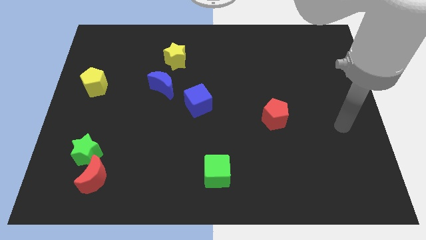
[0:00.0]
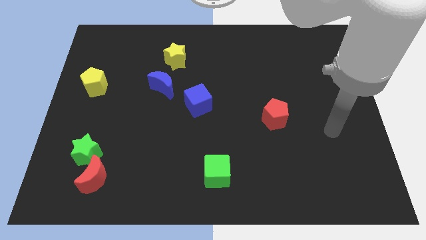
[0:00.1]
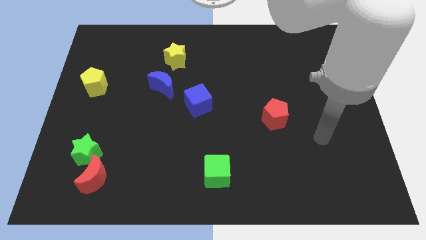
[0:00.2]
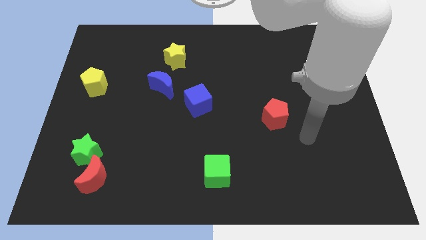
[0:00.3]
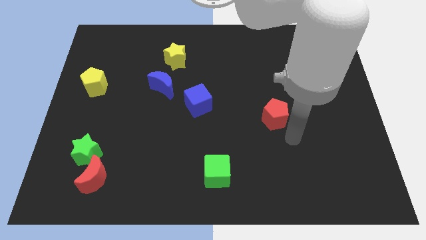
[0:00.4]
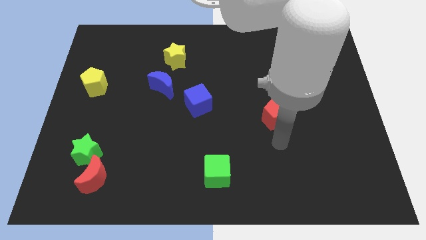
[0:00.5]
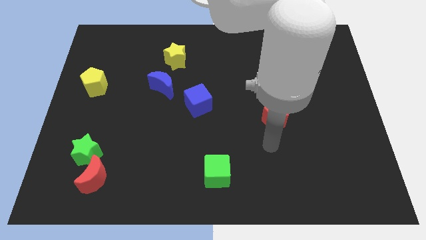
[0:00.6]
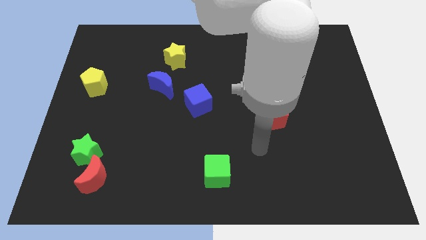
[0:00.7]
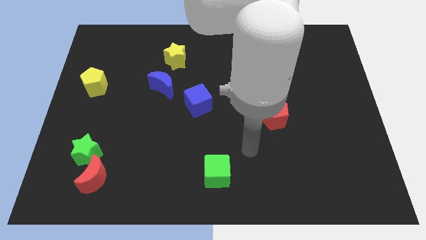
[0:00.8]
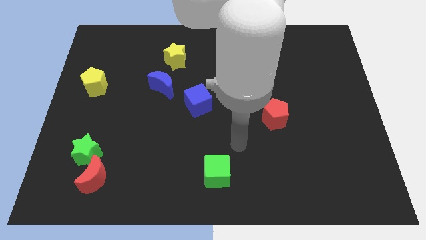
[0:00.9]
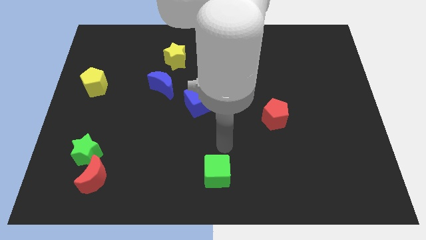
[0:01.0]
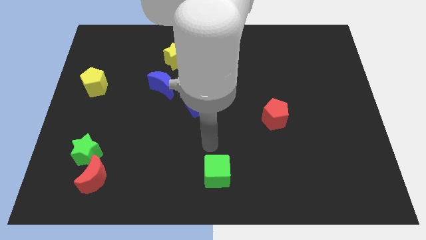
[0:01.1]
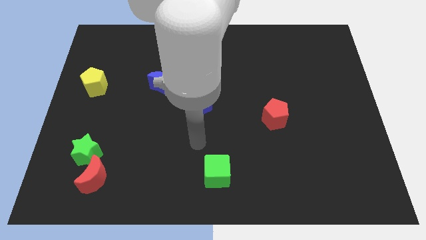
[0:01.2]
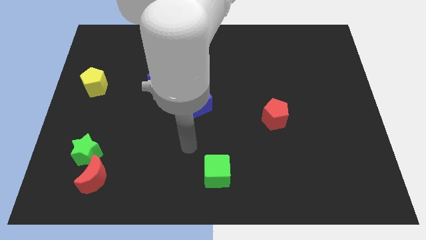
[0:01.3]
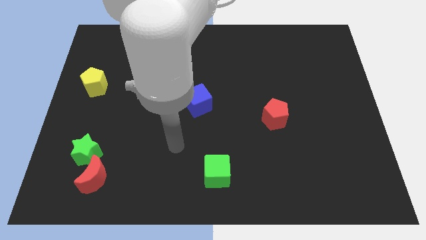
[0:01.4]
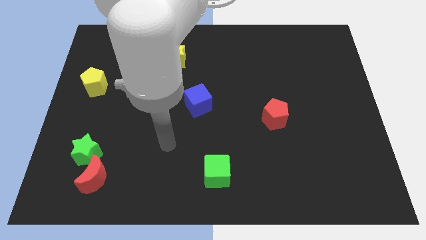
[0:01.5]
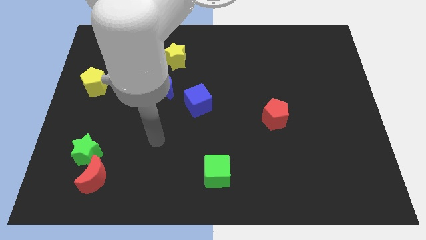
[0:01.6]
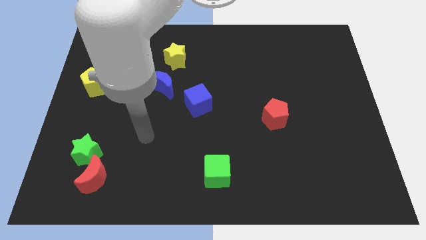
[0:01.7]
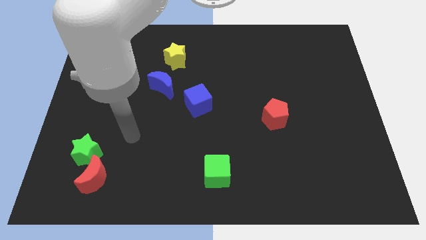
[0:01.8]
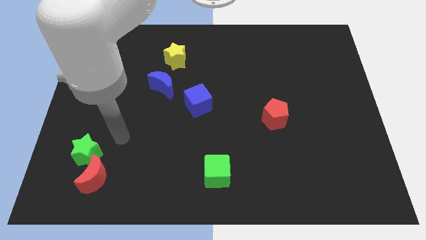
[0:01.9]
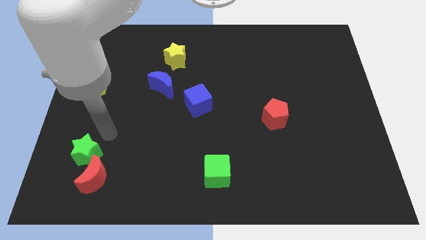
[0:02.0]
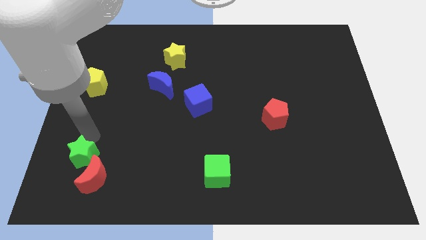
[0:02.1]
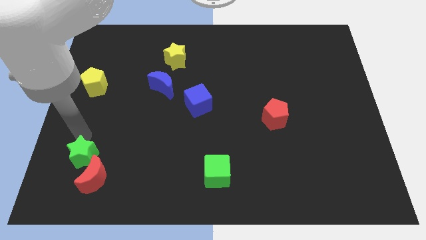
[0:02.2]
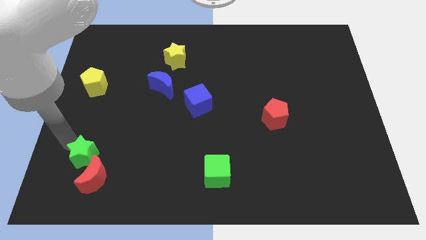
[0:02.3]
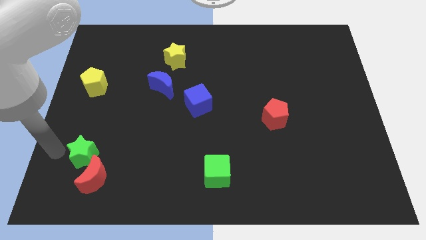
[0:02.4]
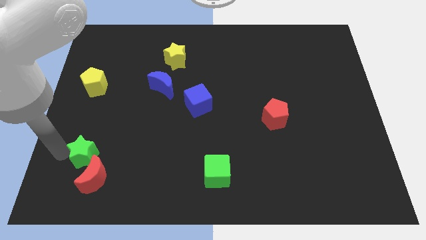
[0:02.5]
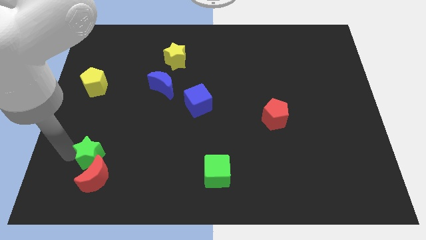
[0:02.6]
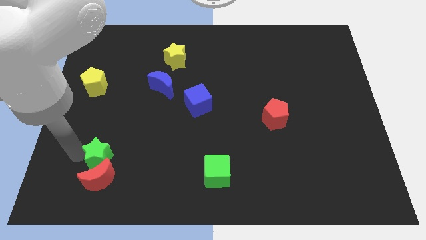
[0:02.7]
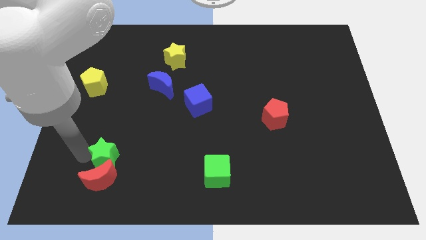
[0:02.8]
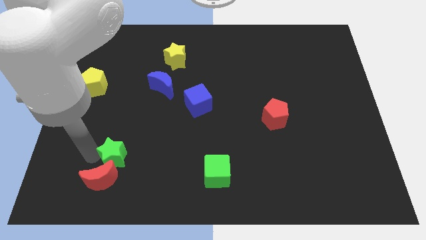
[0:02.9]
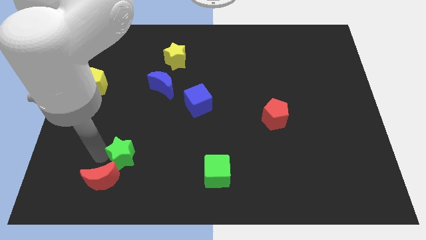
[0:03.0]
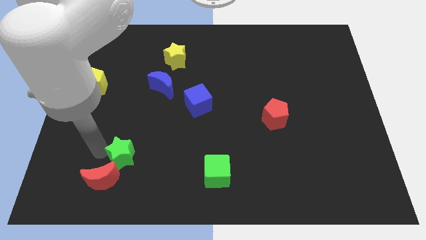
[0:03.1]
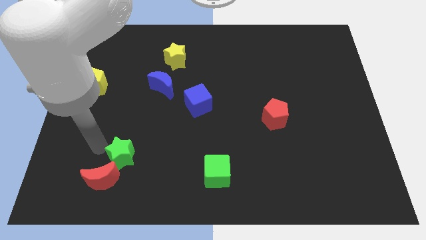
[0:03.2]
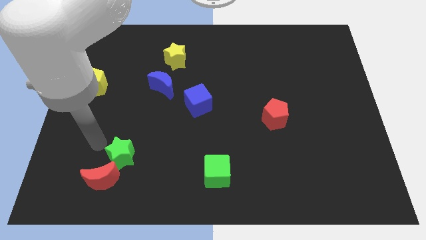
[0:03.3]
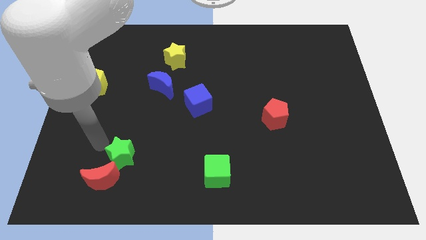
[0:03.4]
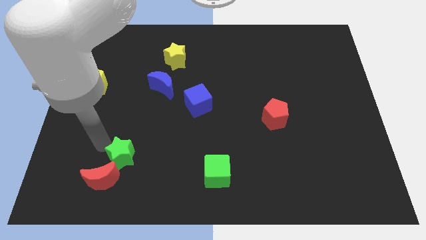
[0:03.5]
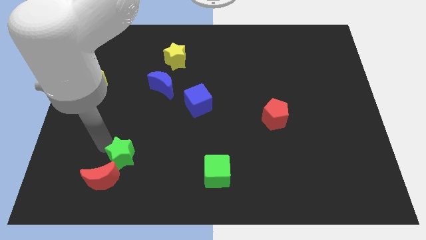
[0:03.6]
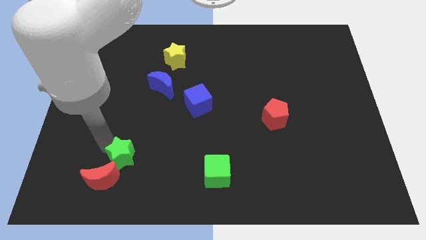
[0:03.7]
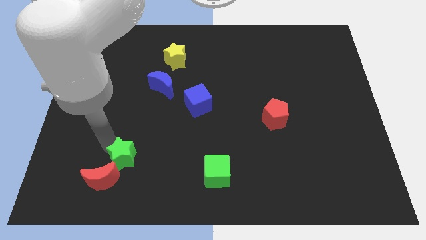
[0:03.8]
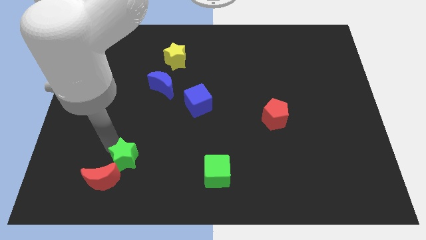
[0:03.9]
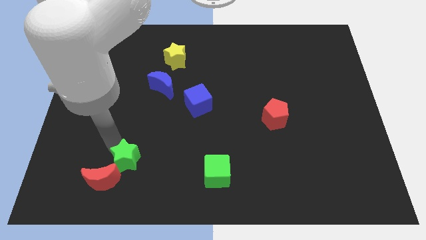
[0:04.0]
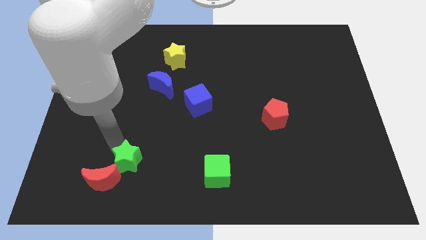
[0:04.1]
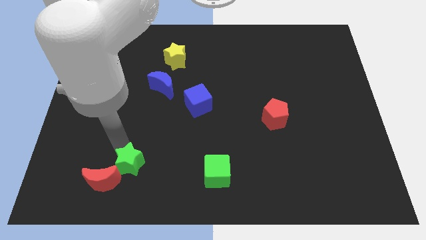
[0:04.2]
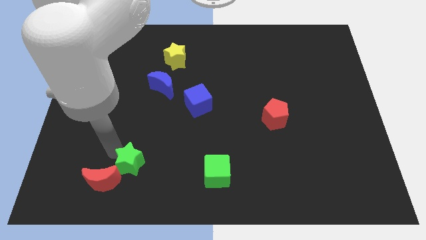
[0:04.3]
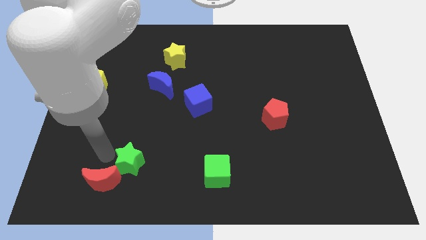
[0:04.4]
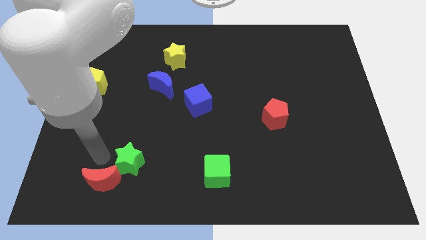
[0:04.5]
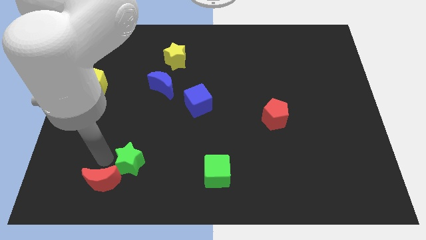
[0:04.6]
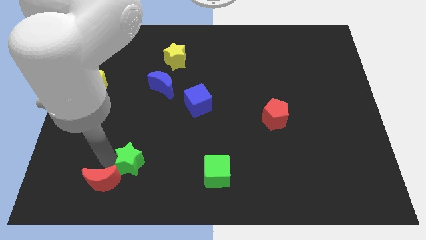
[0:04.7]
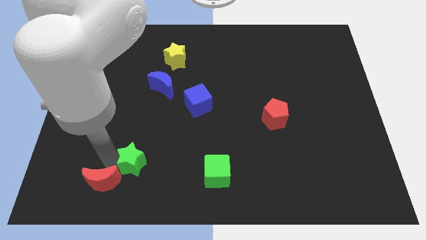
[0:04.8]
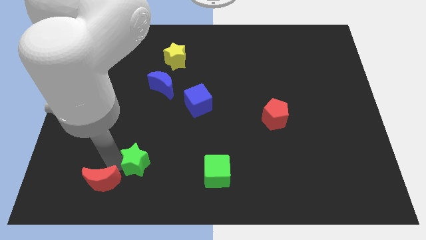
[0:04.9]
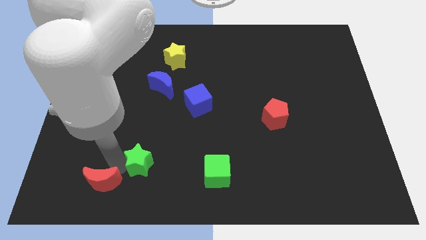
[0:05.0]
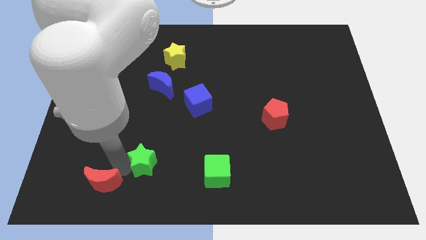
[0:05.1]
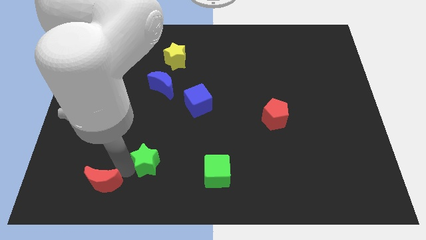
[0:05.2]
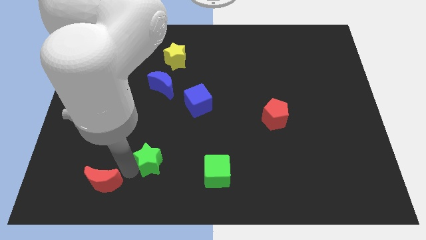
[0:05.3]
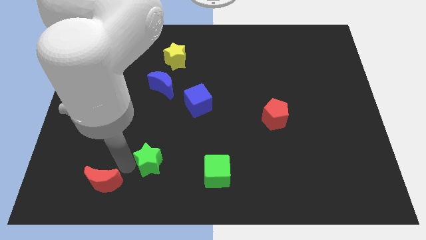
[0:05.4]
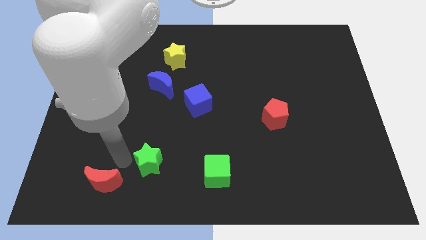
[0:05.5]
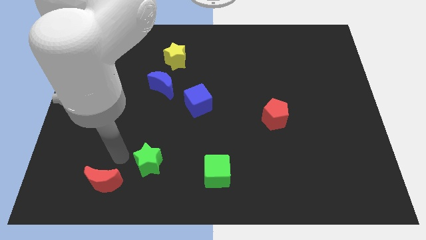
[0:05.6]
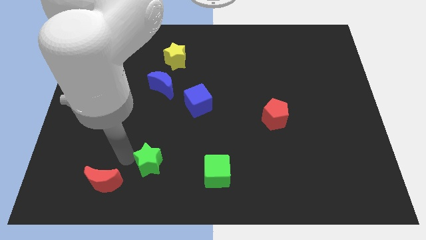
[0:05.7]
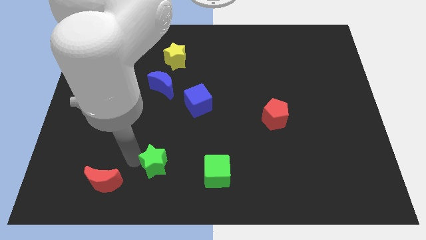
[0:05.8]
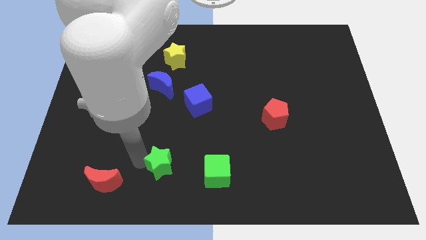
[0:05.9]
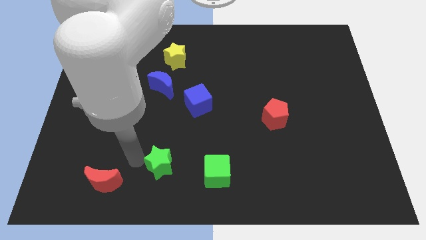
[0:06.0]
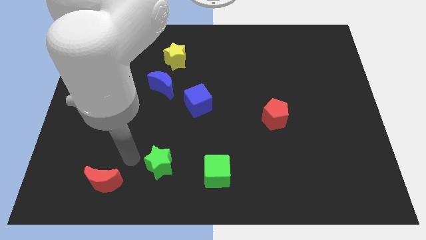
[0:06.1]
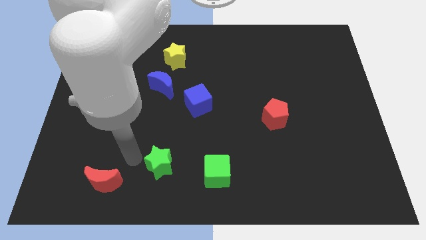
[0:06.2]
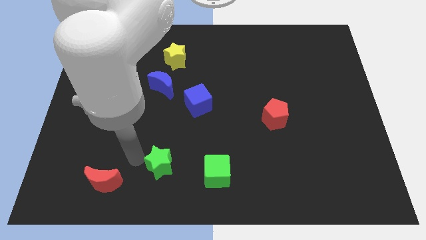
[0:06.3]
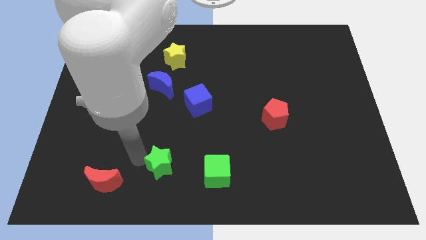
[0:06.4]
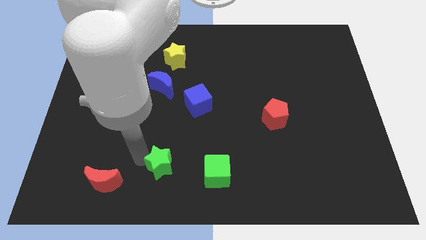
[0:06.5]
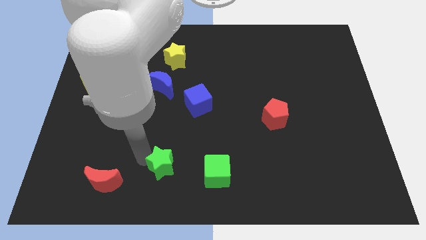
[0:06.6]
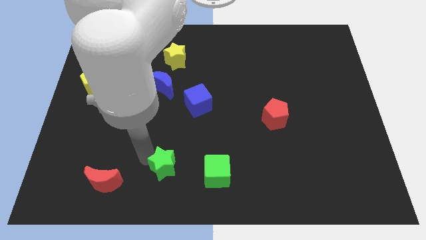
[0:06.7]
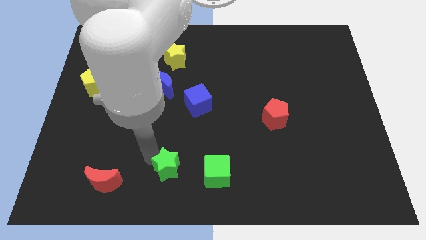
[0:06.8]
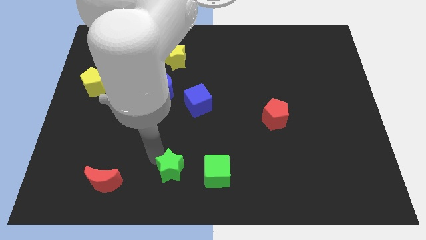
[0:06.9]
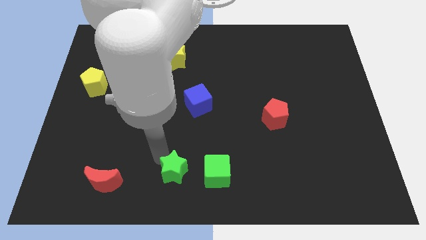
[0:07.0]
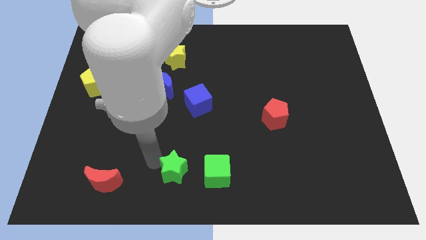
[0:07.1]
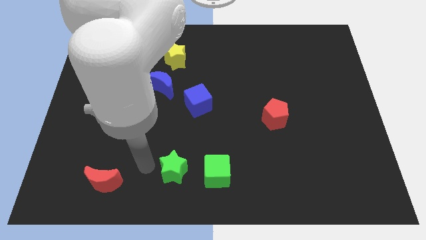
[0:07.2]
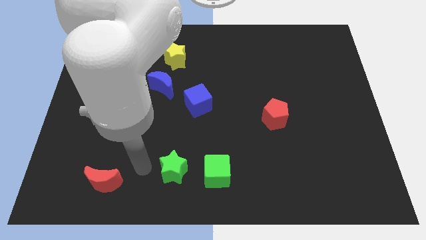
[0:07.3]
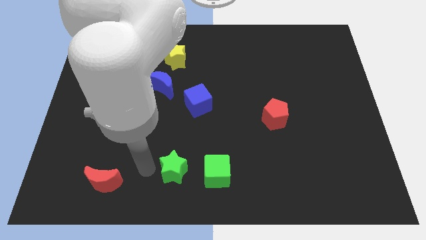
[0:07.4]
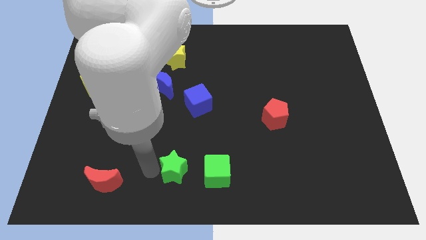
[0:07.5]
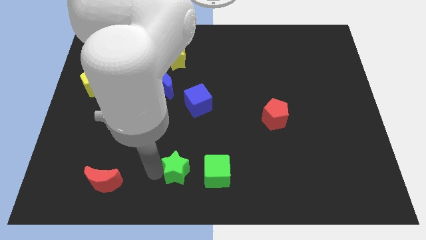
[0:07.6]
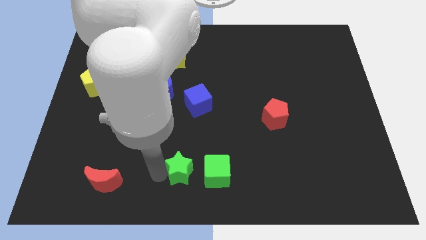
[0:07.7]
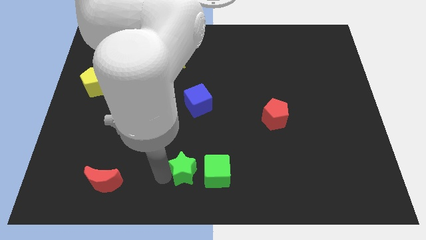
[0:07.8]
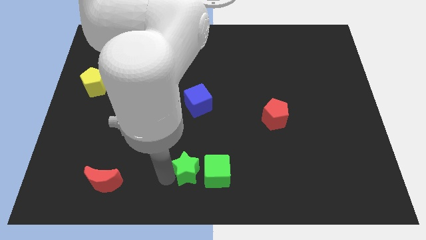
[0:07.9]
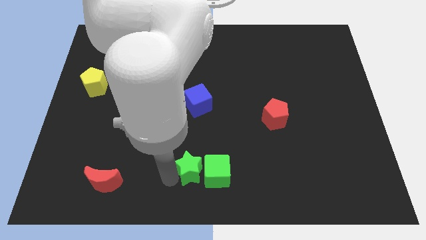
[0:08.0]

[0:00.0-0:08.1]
move the green star close to the green cube
